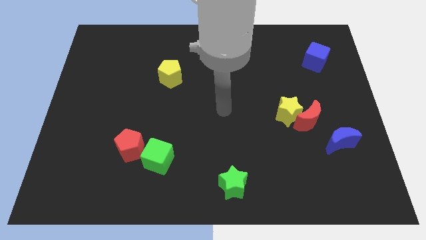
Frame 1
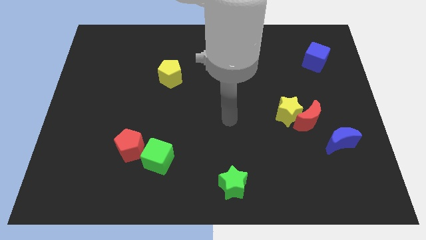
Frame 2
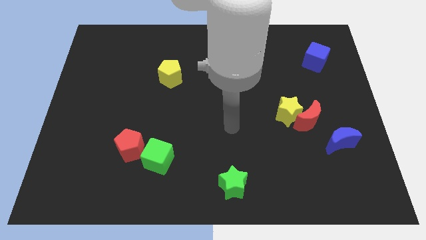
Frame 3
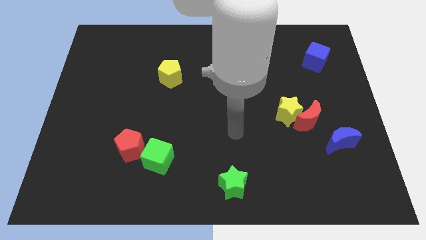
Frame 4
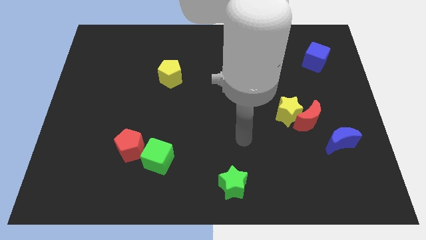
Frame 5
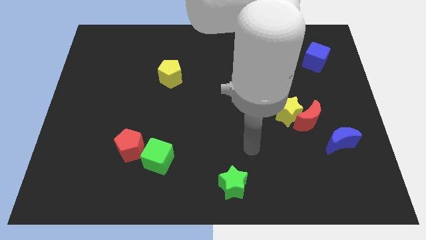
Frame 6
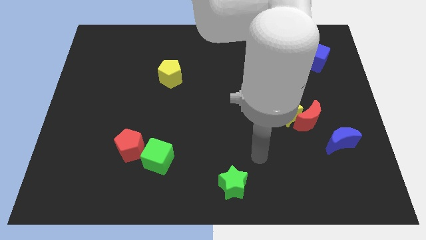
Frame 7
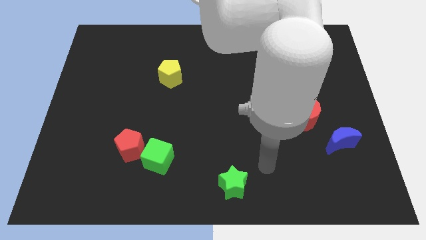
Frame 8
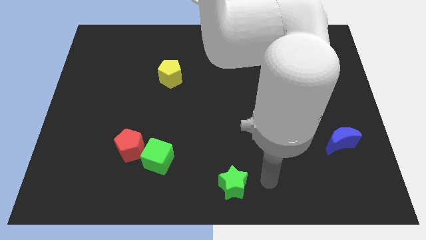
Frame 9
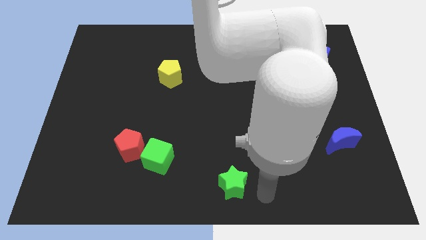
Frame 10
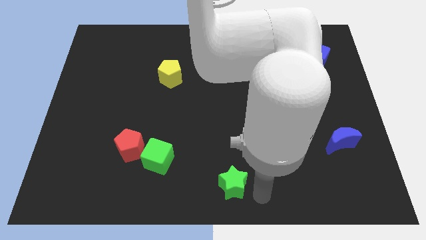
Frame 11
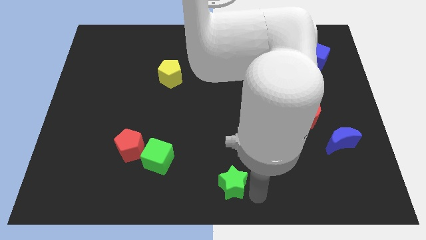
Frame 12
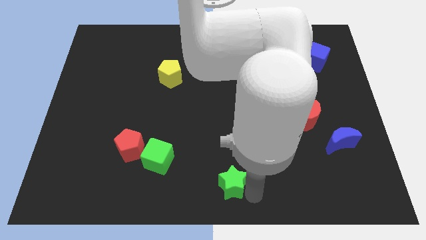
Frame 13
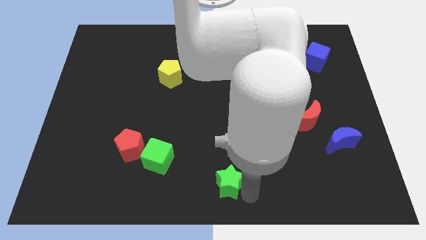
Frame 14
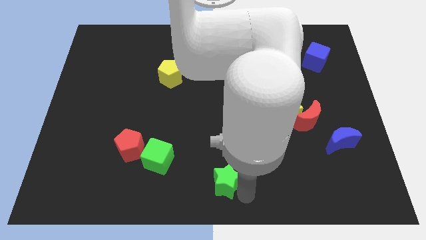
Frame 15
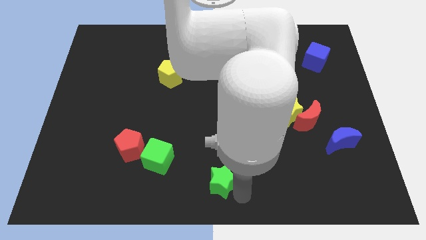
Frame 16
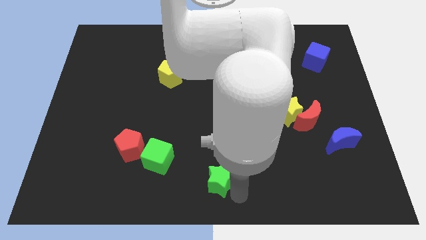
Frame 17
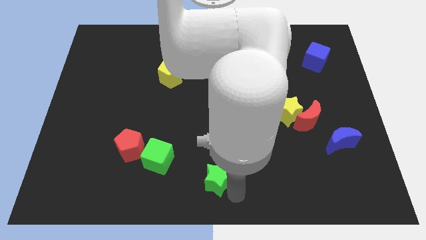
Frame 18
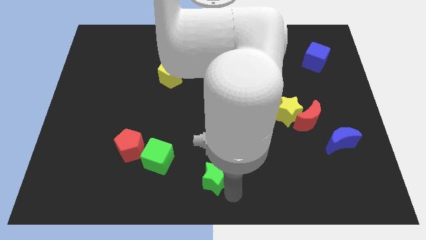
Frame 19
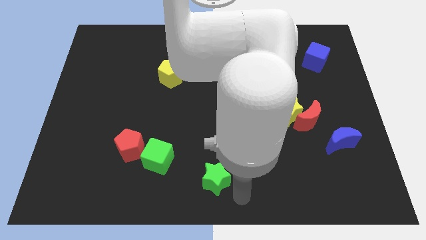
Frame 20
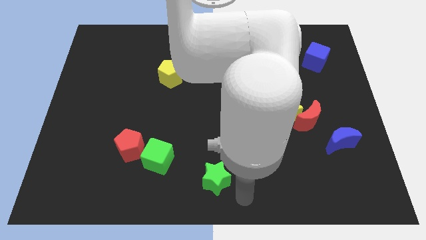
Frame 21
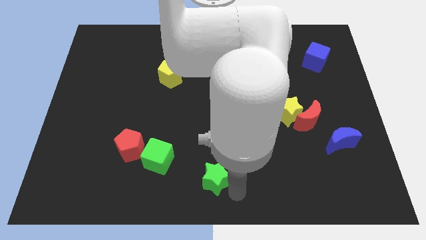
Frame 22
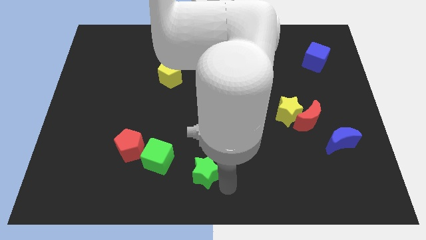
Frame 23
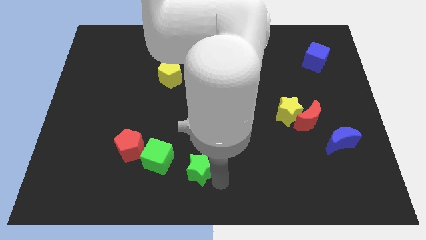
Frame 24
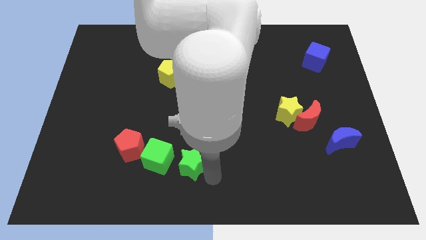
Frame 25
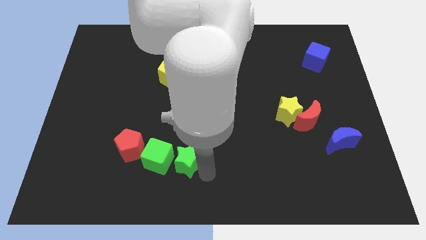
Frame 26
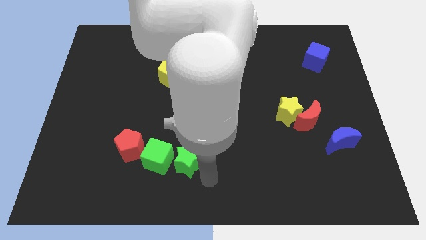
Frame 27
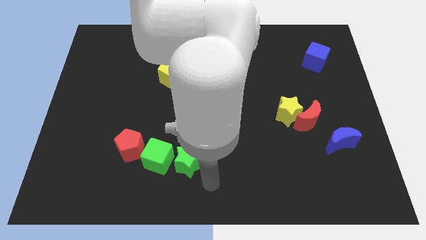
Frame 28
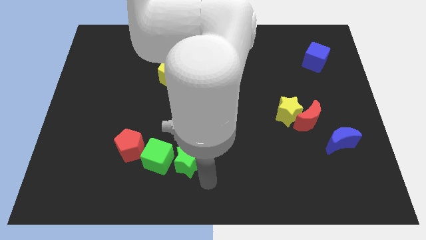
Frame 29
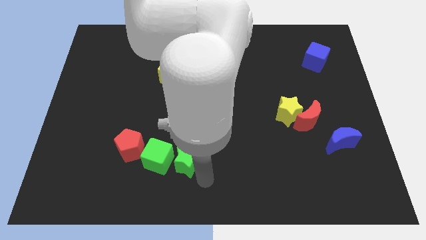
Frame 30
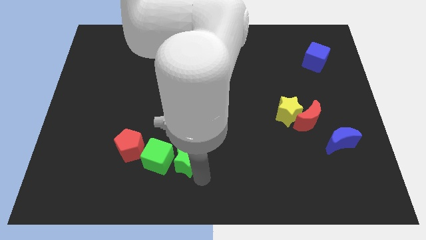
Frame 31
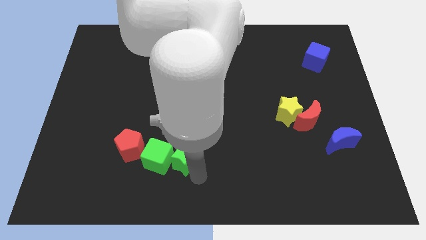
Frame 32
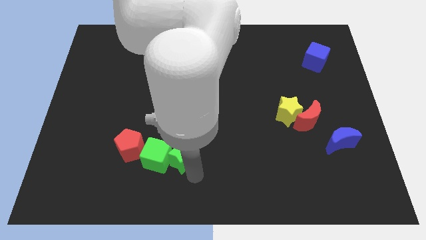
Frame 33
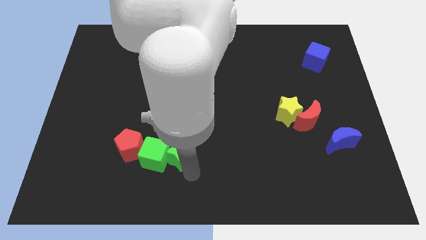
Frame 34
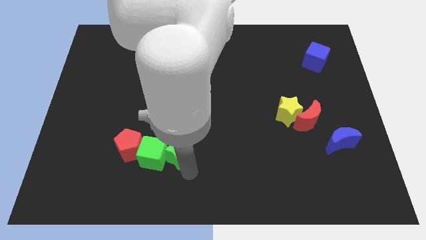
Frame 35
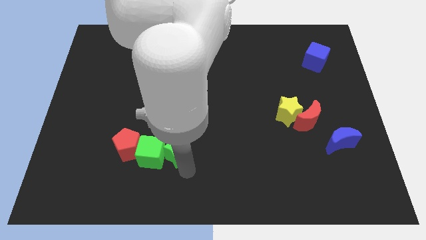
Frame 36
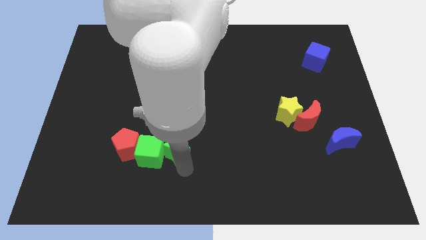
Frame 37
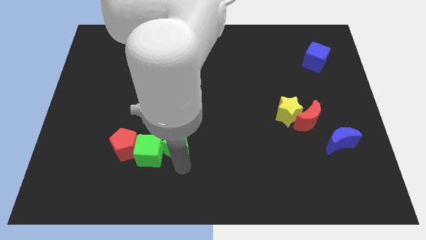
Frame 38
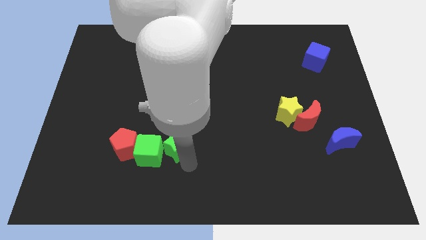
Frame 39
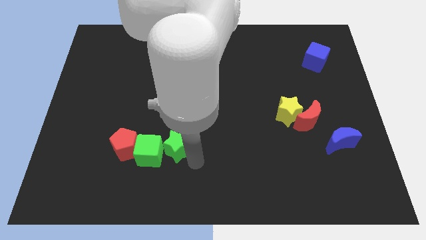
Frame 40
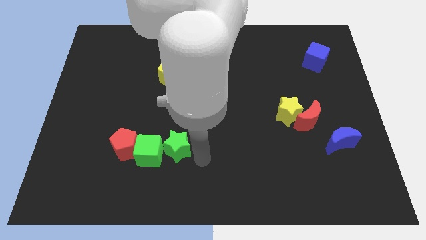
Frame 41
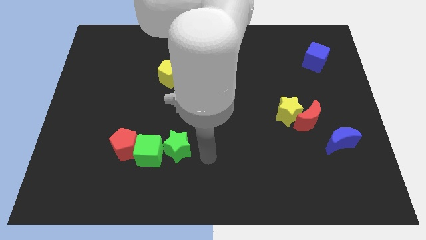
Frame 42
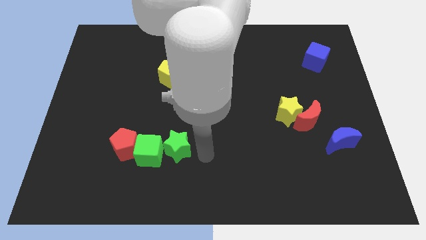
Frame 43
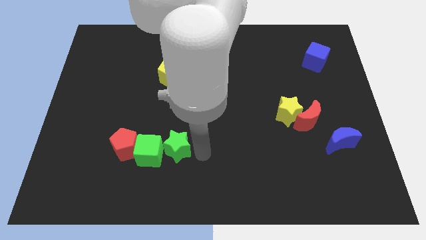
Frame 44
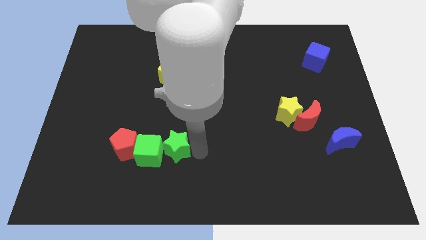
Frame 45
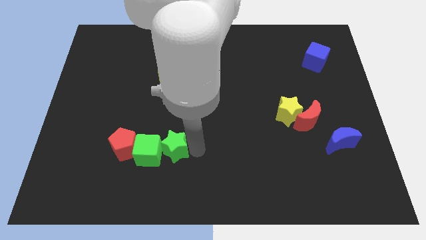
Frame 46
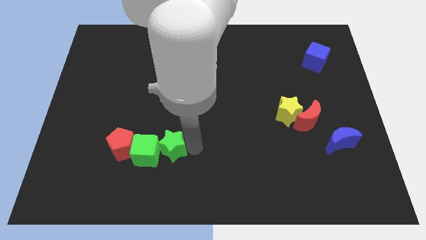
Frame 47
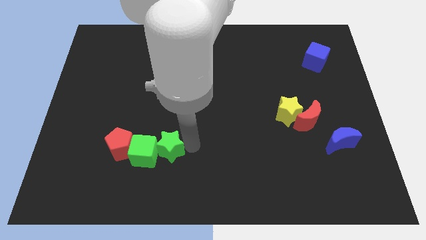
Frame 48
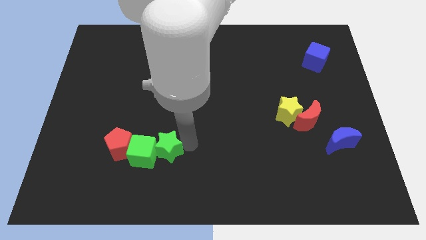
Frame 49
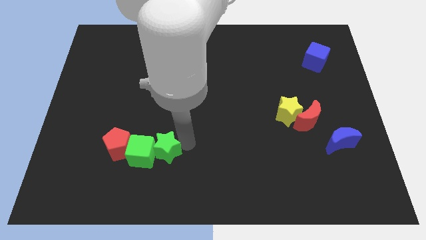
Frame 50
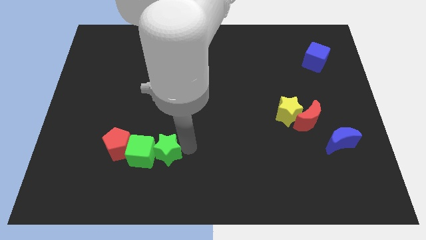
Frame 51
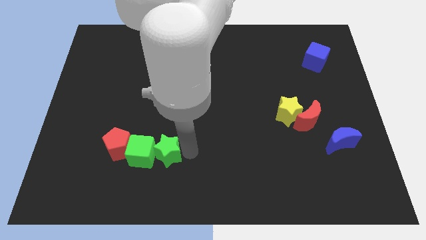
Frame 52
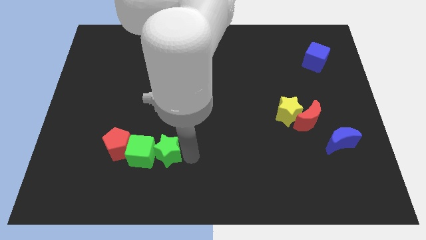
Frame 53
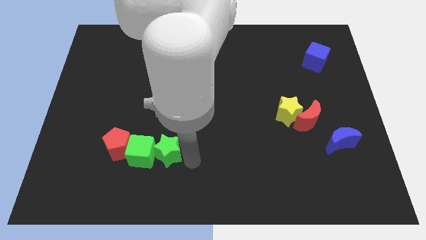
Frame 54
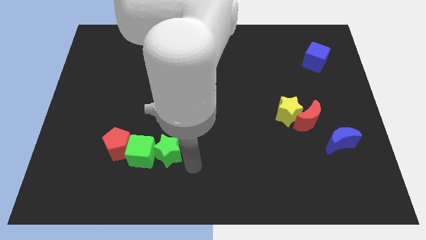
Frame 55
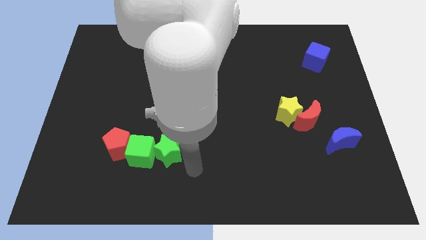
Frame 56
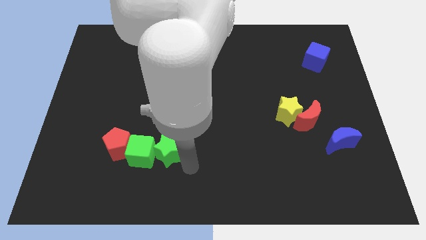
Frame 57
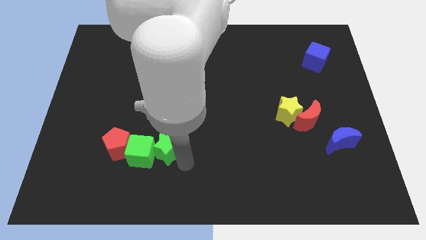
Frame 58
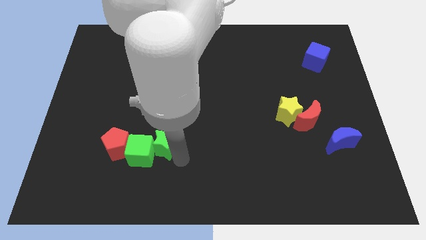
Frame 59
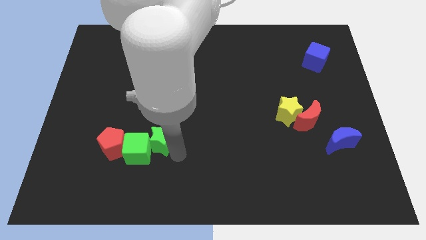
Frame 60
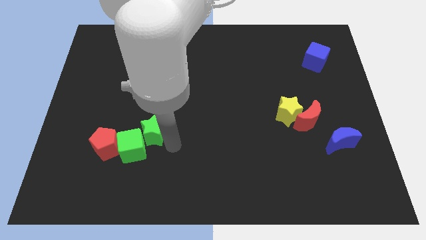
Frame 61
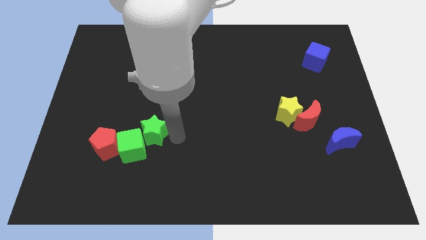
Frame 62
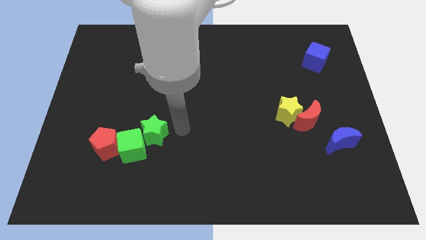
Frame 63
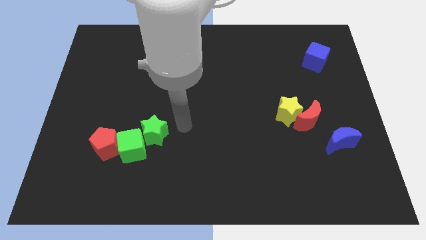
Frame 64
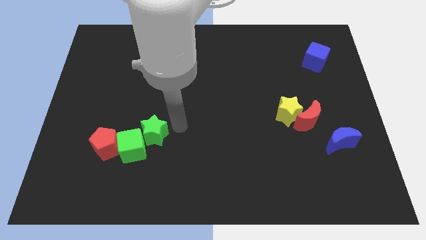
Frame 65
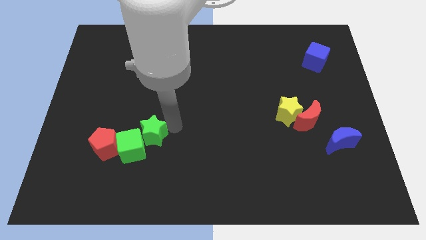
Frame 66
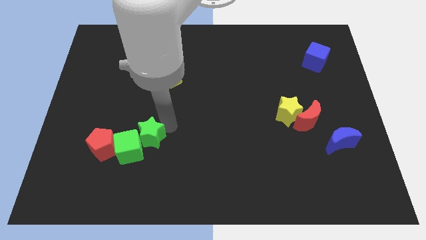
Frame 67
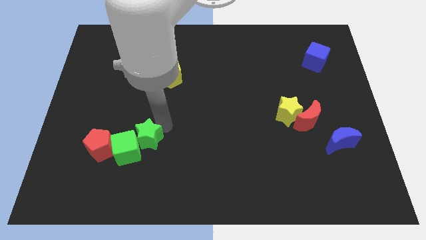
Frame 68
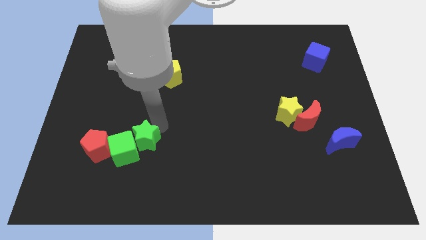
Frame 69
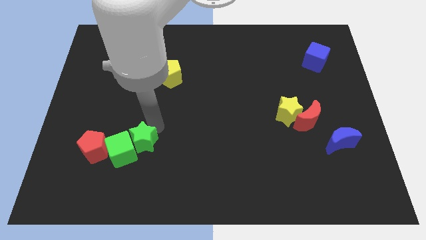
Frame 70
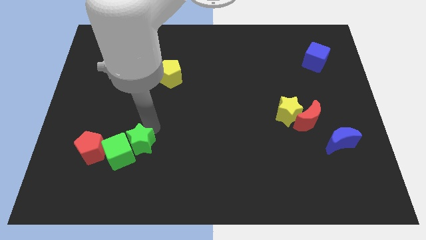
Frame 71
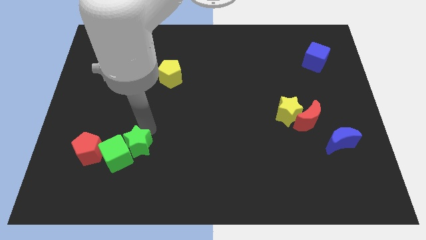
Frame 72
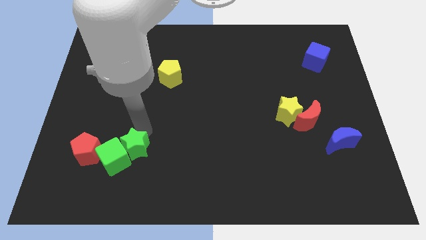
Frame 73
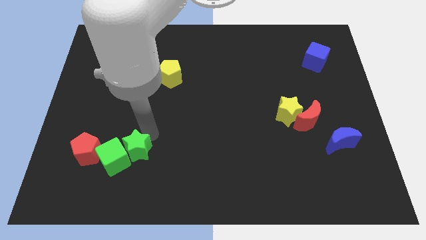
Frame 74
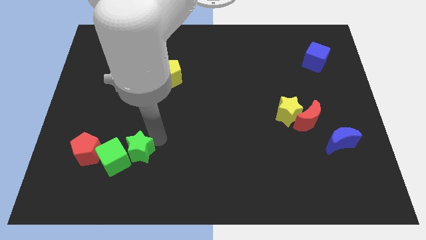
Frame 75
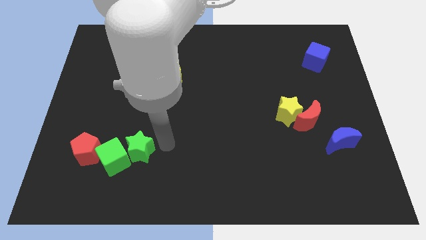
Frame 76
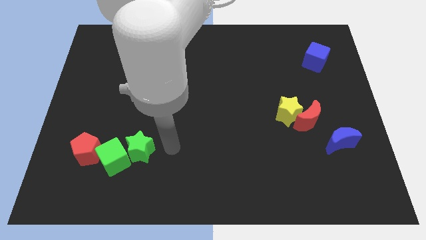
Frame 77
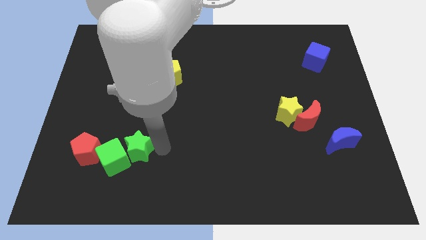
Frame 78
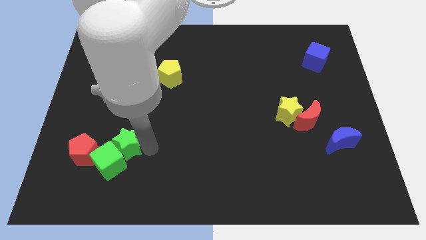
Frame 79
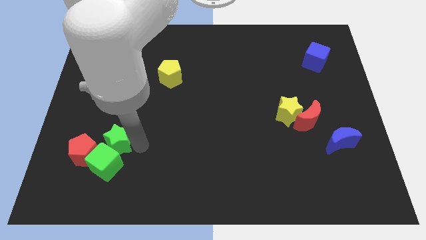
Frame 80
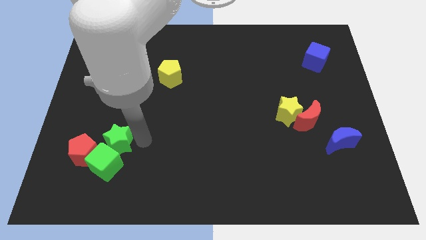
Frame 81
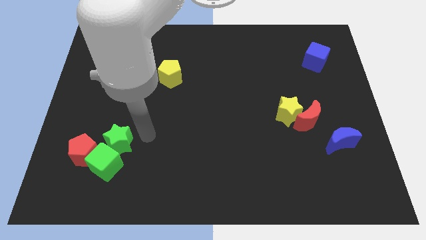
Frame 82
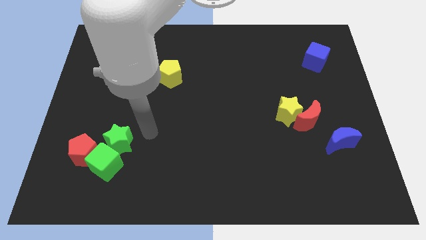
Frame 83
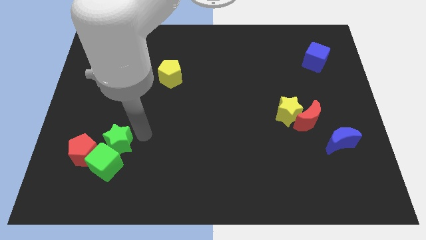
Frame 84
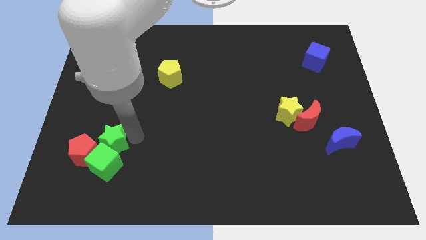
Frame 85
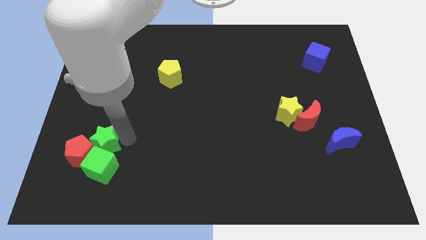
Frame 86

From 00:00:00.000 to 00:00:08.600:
move the green star close to the red pentagon
